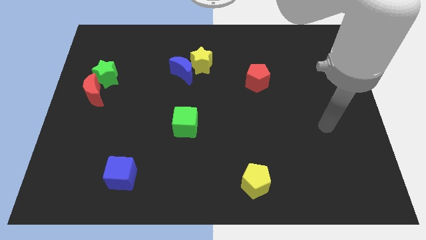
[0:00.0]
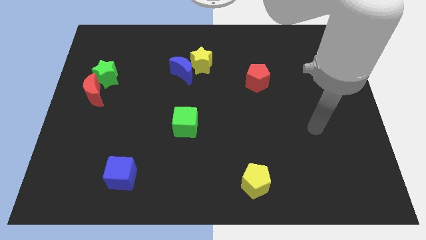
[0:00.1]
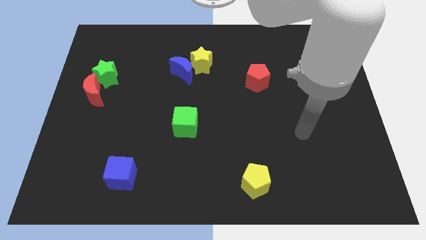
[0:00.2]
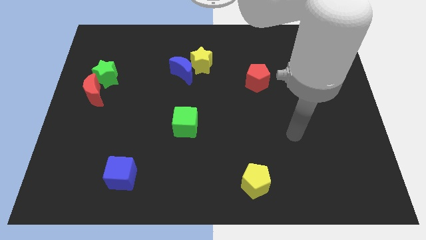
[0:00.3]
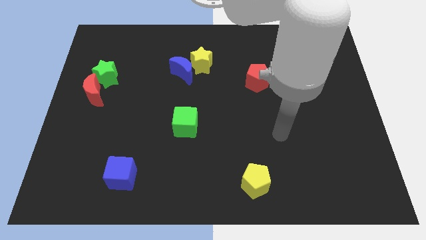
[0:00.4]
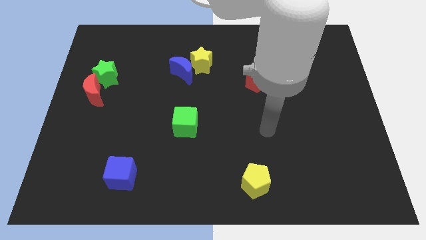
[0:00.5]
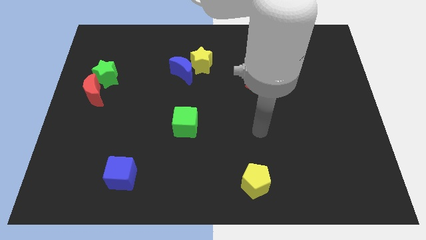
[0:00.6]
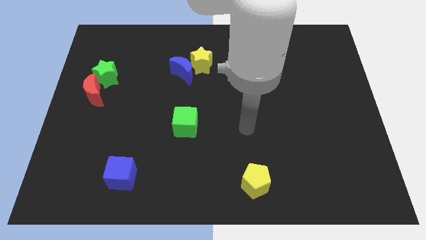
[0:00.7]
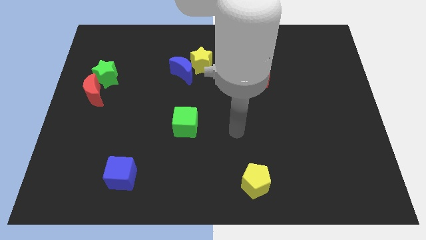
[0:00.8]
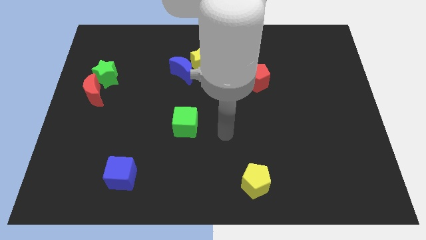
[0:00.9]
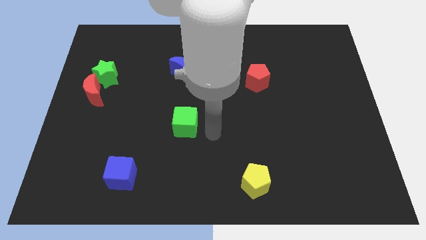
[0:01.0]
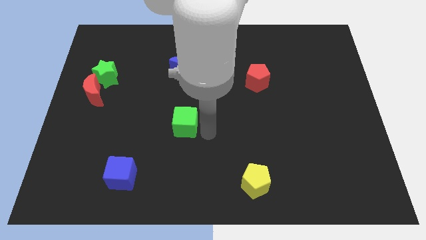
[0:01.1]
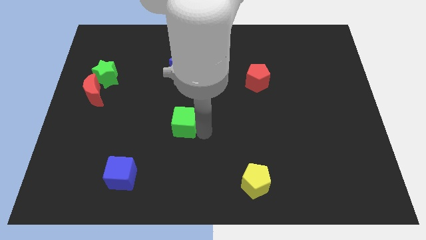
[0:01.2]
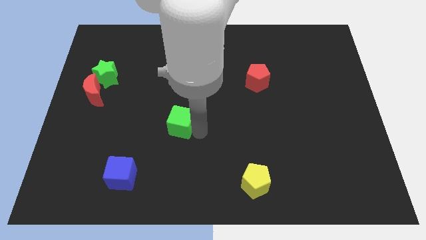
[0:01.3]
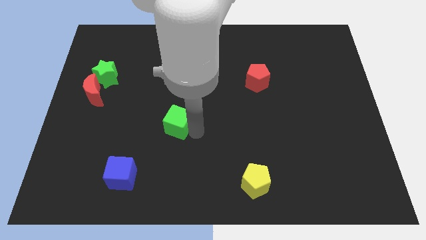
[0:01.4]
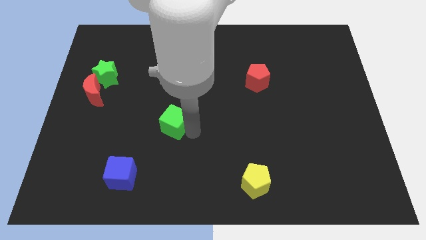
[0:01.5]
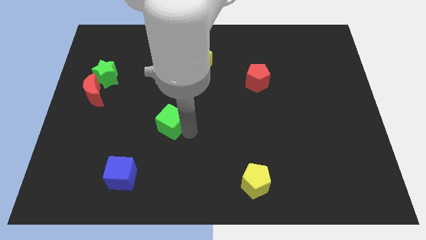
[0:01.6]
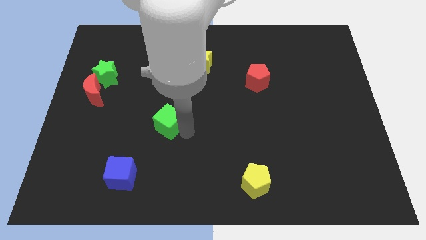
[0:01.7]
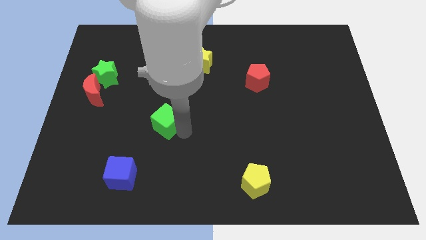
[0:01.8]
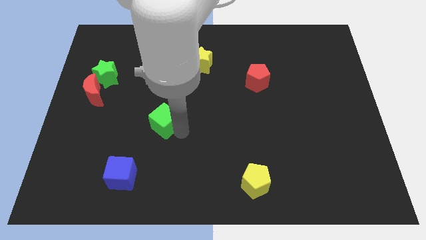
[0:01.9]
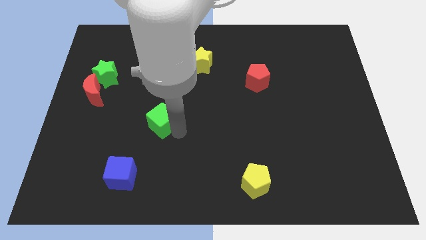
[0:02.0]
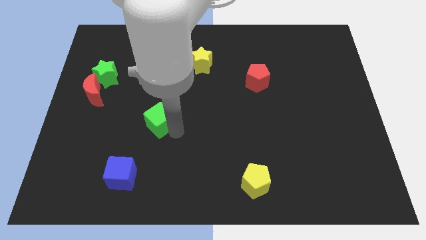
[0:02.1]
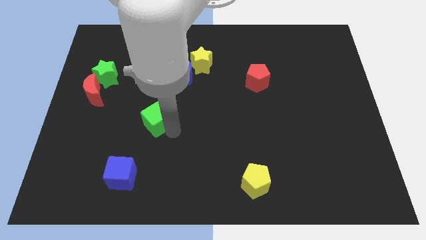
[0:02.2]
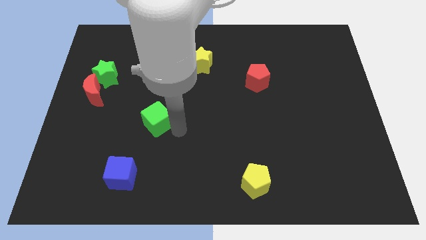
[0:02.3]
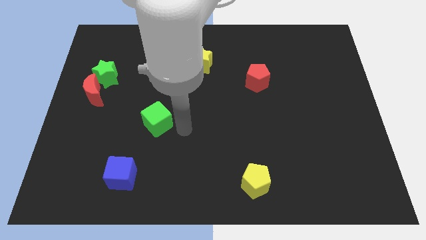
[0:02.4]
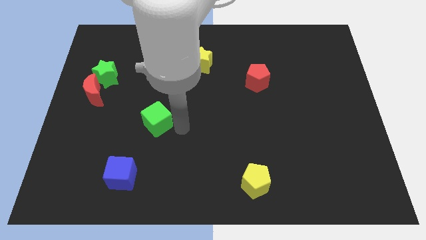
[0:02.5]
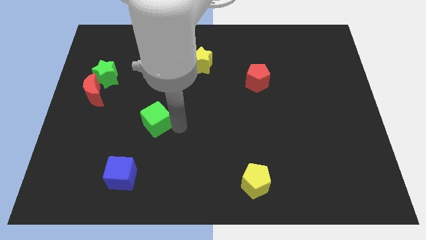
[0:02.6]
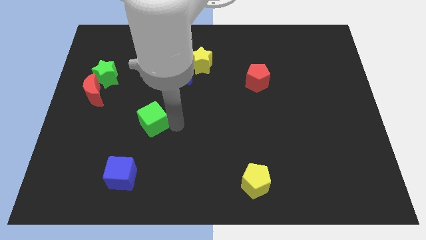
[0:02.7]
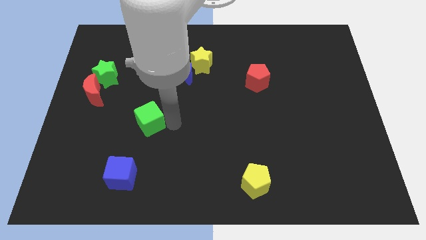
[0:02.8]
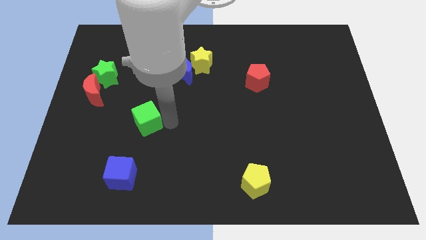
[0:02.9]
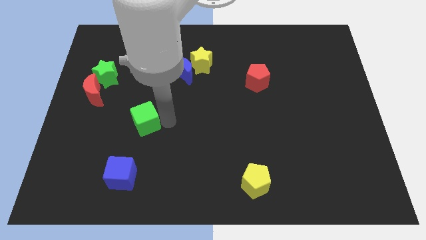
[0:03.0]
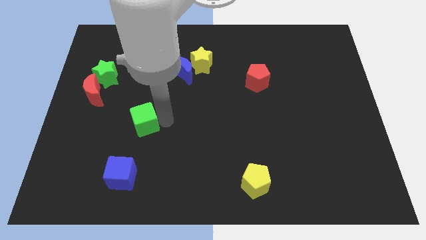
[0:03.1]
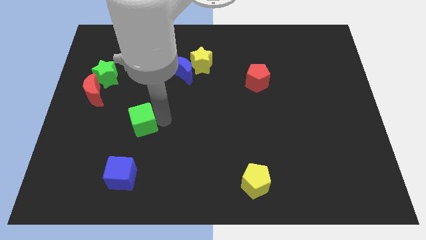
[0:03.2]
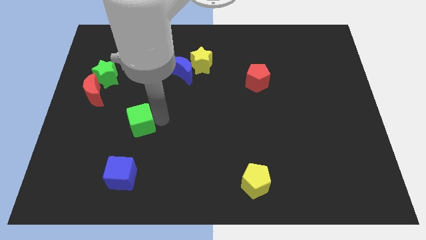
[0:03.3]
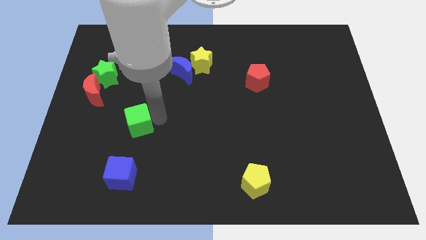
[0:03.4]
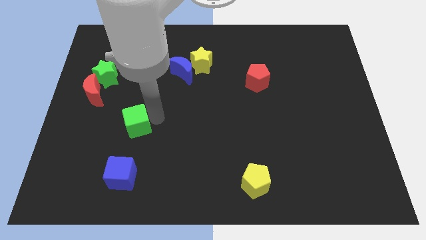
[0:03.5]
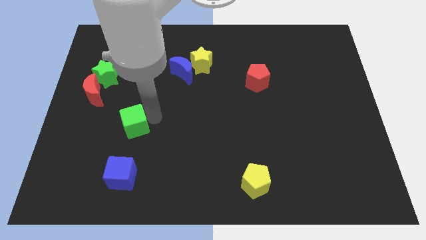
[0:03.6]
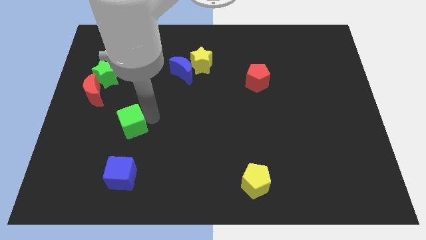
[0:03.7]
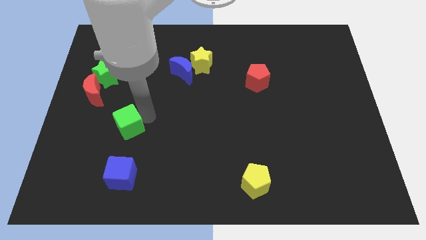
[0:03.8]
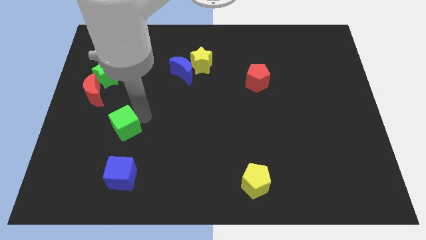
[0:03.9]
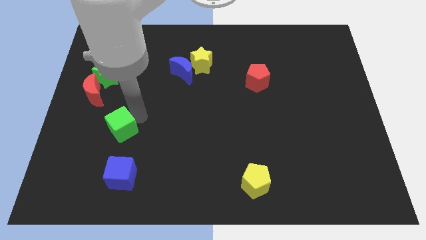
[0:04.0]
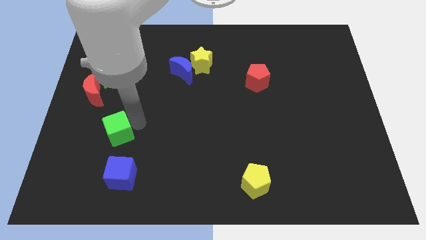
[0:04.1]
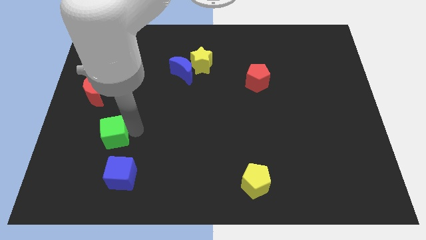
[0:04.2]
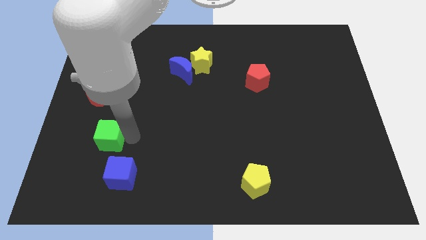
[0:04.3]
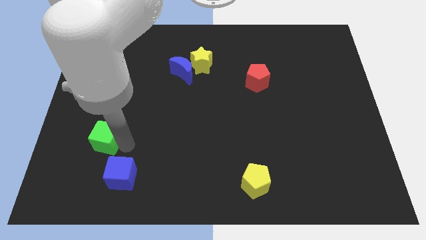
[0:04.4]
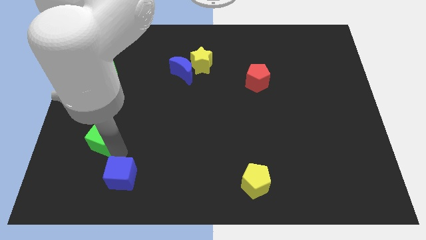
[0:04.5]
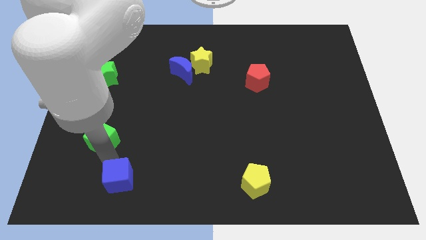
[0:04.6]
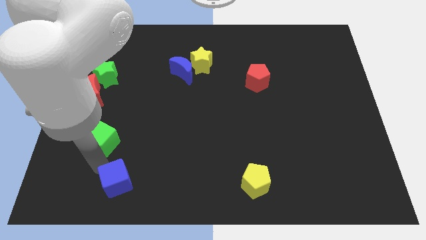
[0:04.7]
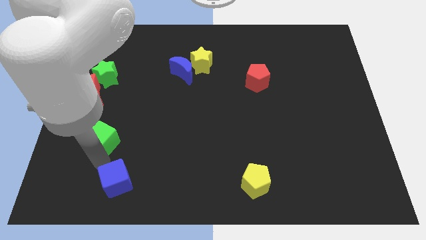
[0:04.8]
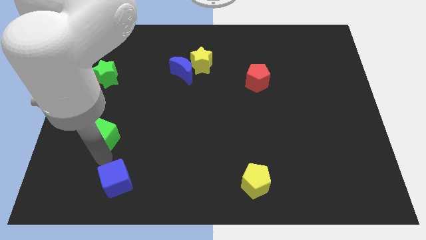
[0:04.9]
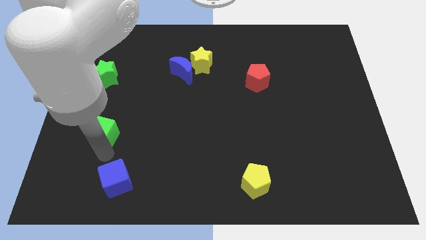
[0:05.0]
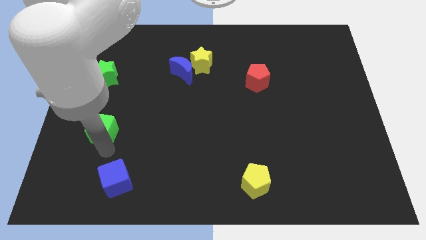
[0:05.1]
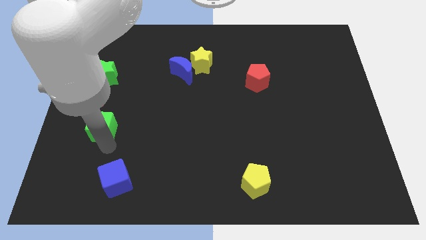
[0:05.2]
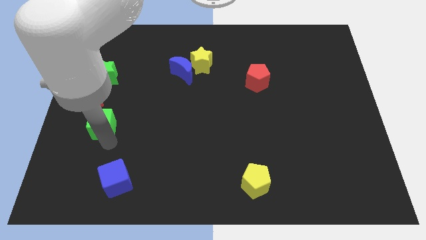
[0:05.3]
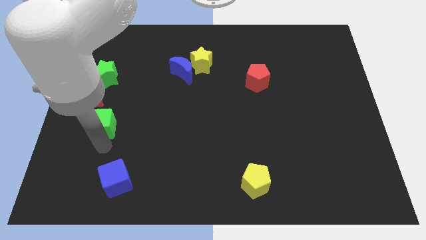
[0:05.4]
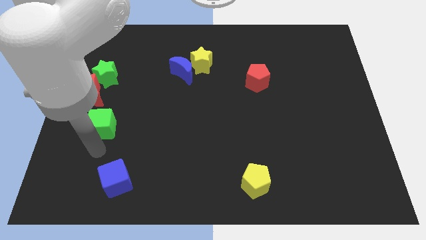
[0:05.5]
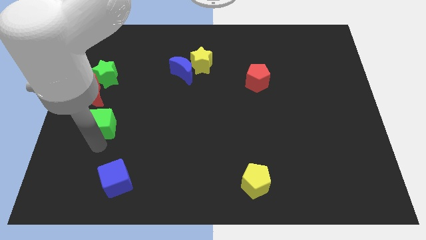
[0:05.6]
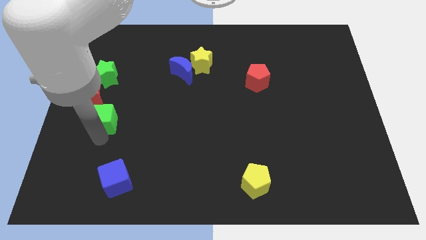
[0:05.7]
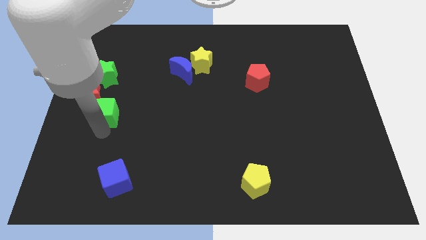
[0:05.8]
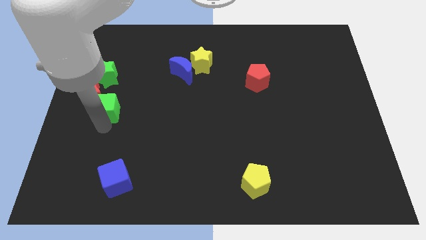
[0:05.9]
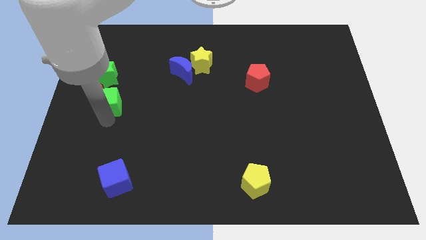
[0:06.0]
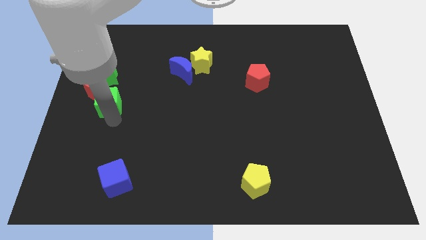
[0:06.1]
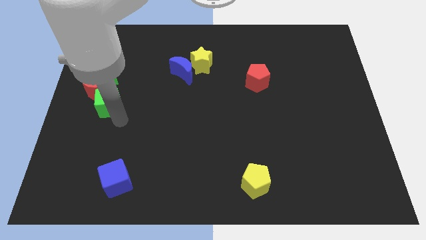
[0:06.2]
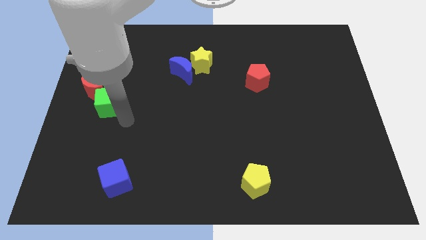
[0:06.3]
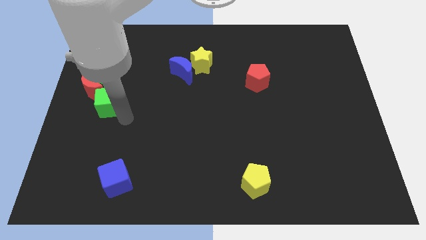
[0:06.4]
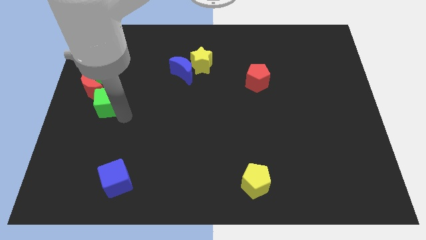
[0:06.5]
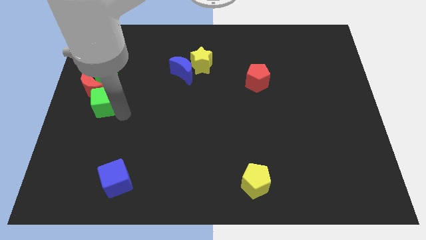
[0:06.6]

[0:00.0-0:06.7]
move the green cube next to the red moon
